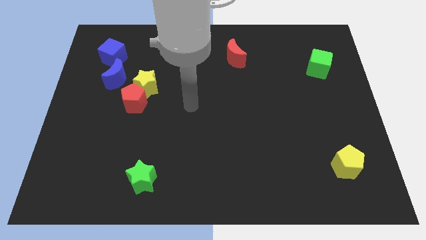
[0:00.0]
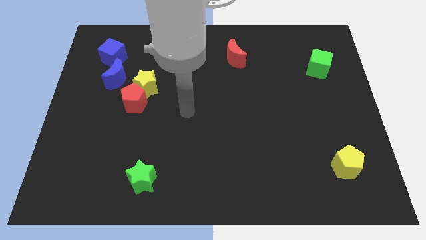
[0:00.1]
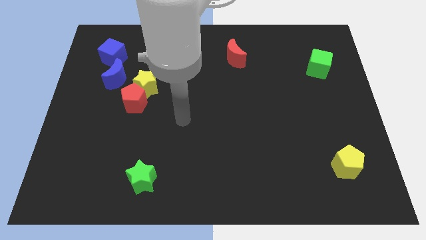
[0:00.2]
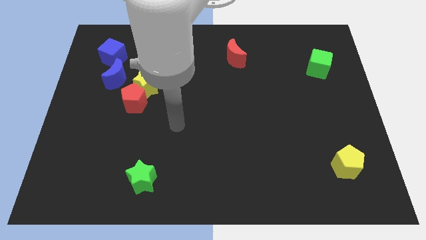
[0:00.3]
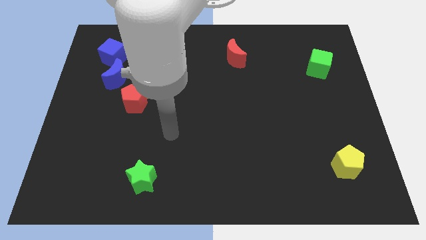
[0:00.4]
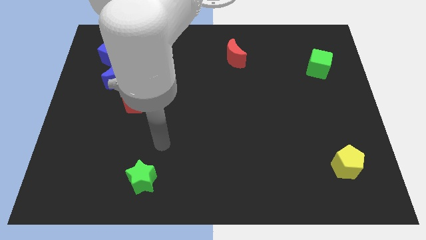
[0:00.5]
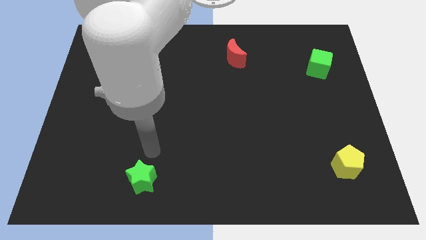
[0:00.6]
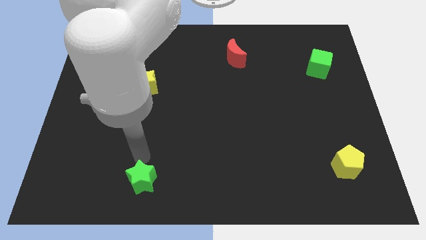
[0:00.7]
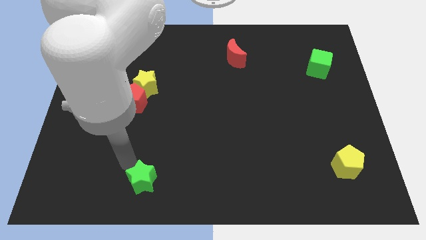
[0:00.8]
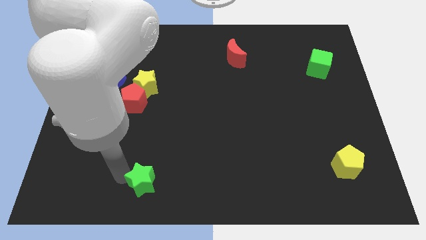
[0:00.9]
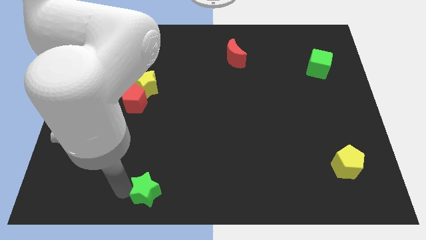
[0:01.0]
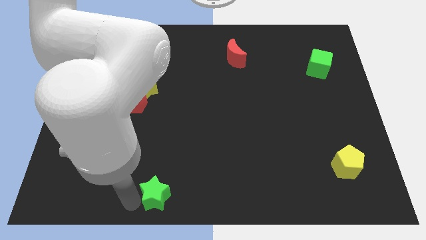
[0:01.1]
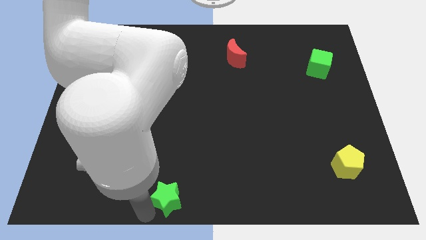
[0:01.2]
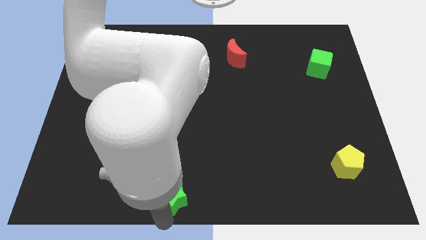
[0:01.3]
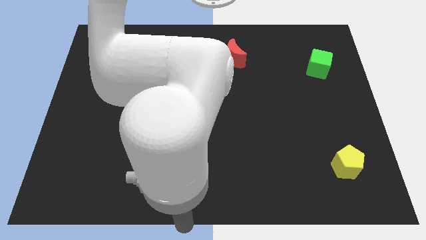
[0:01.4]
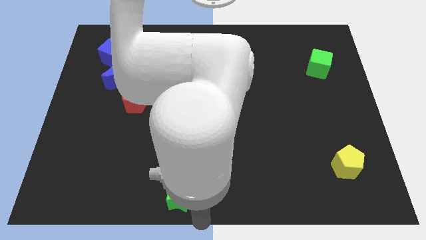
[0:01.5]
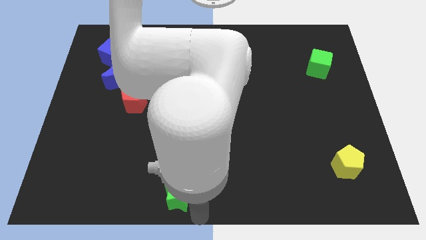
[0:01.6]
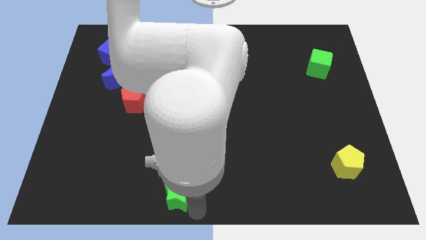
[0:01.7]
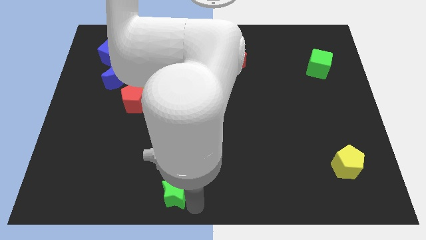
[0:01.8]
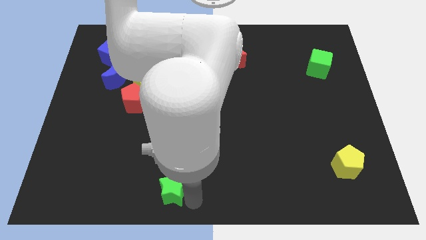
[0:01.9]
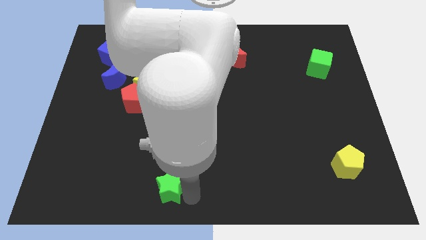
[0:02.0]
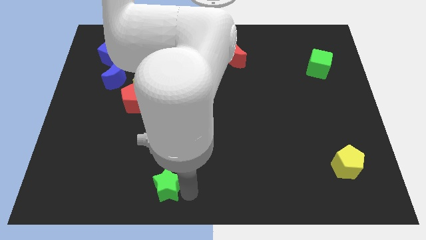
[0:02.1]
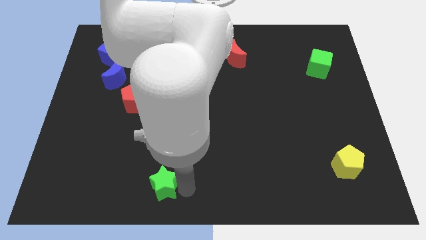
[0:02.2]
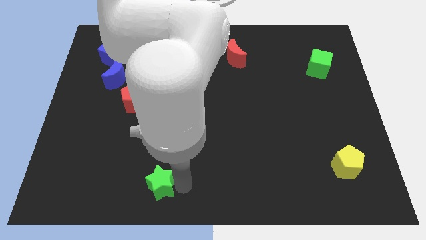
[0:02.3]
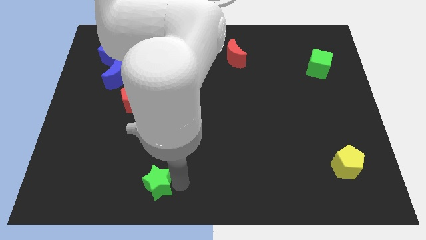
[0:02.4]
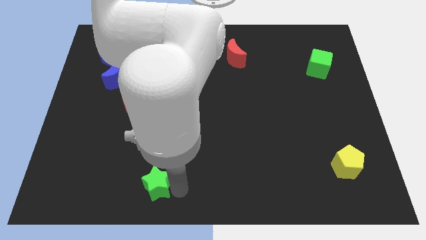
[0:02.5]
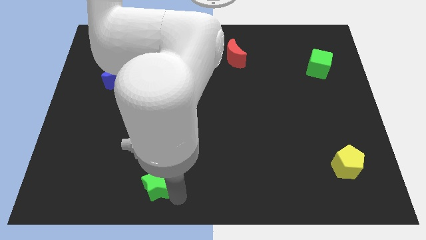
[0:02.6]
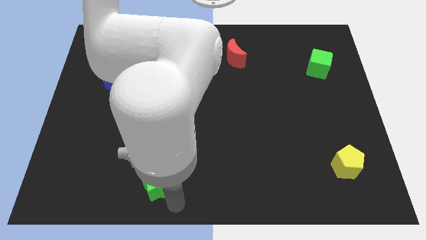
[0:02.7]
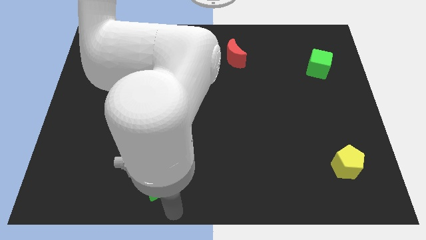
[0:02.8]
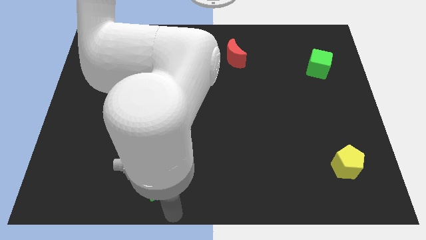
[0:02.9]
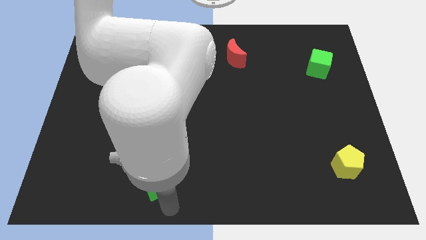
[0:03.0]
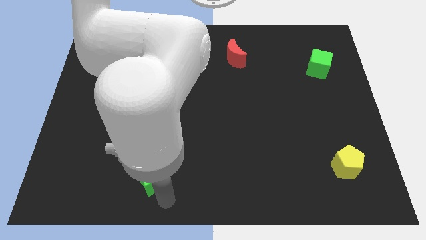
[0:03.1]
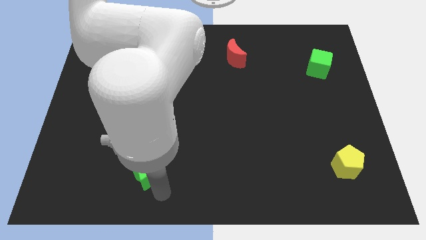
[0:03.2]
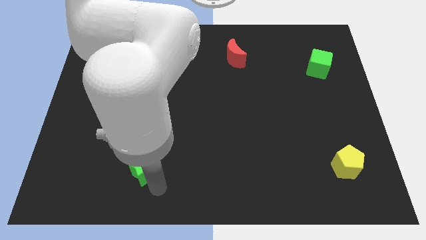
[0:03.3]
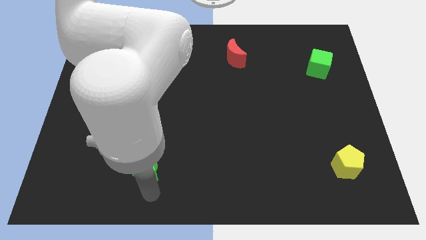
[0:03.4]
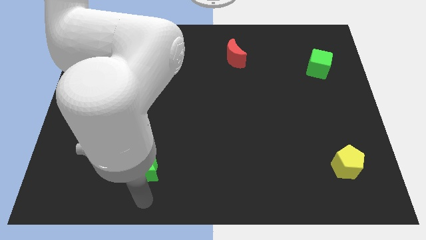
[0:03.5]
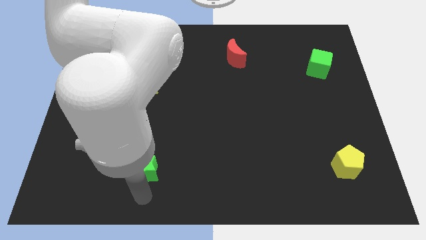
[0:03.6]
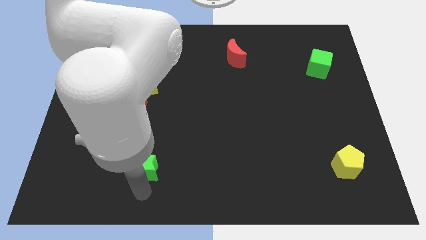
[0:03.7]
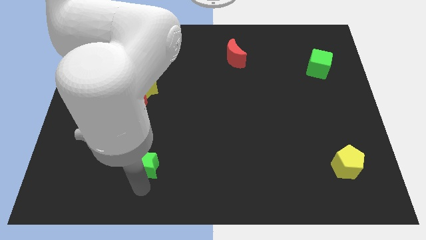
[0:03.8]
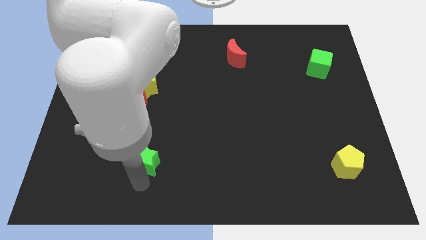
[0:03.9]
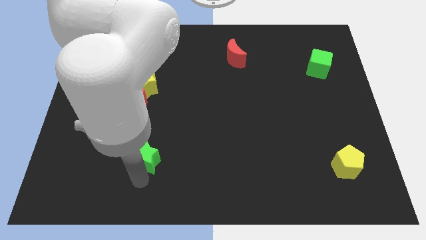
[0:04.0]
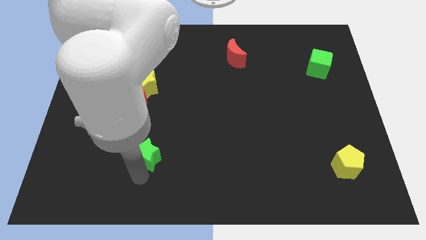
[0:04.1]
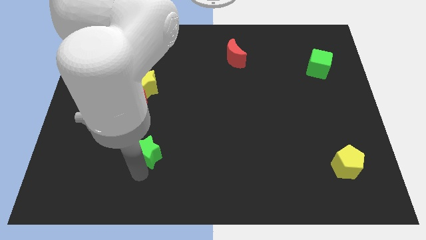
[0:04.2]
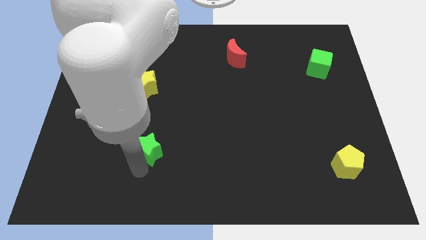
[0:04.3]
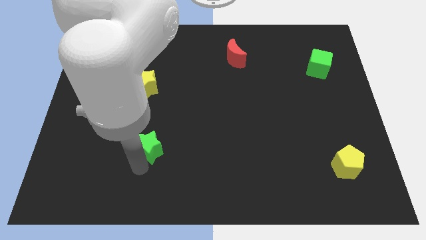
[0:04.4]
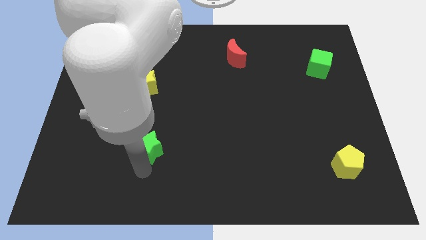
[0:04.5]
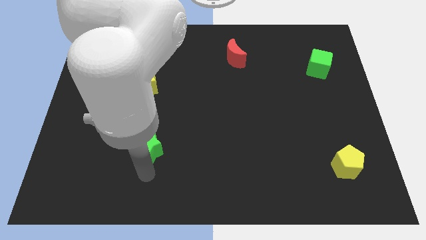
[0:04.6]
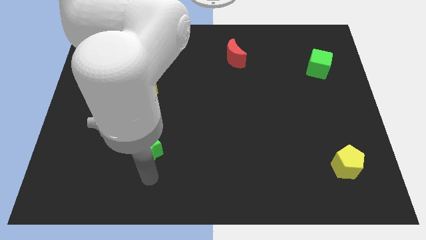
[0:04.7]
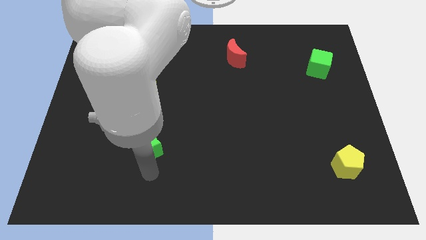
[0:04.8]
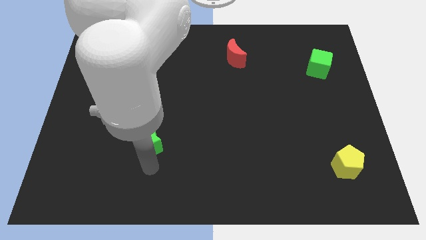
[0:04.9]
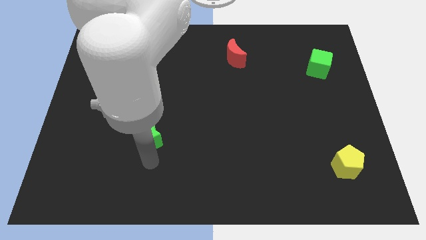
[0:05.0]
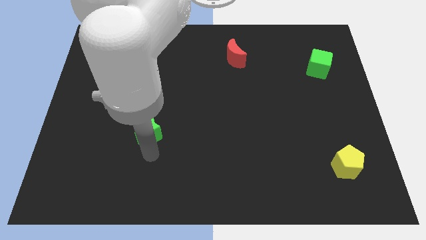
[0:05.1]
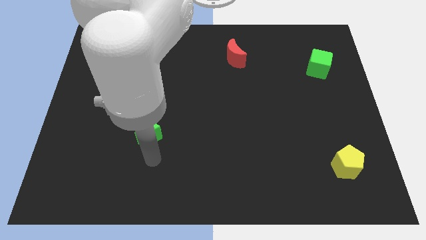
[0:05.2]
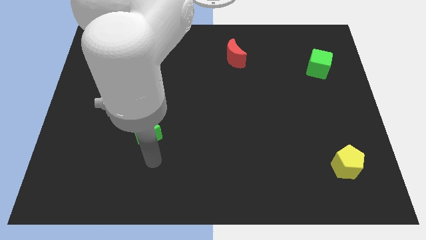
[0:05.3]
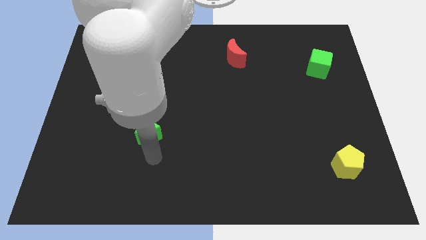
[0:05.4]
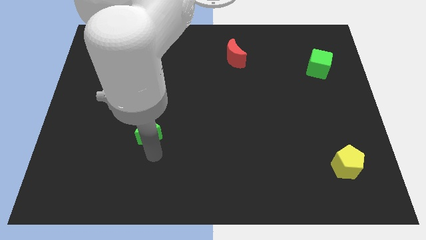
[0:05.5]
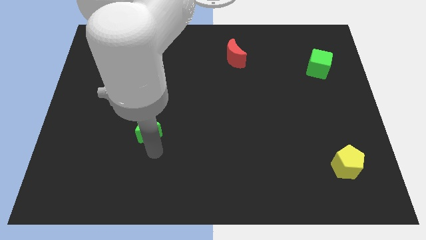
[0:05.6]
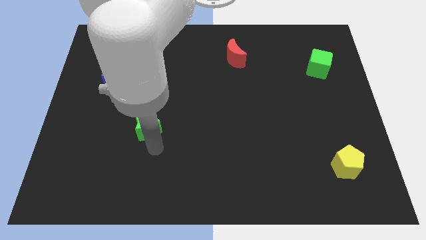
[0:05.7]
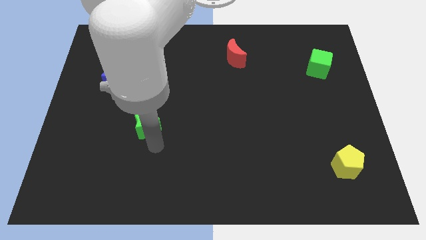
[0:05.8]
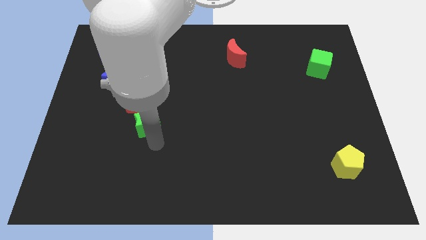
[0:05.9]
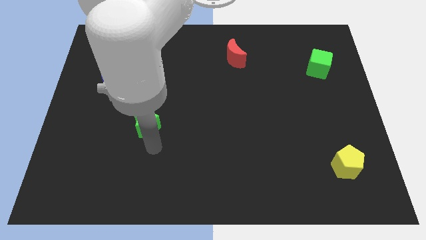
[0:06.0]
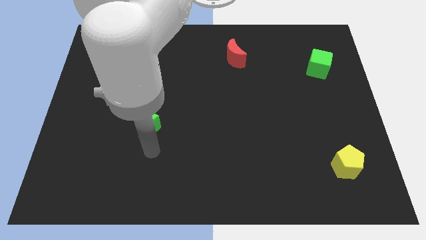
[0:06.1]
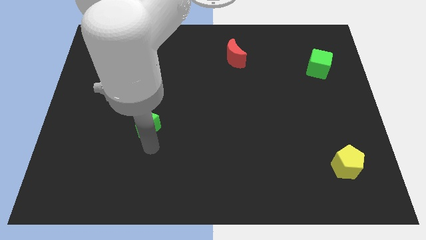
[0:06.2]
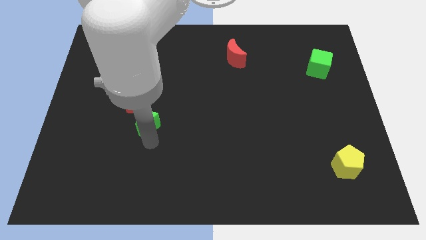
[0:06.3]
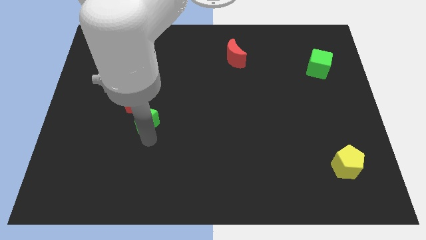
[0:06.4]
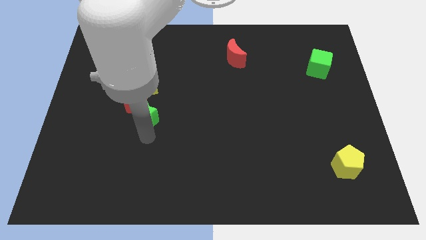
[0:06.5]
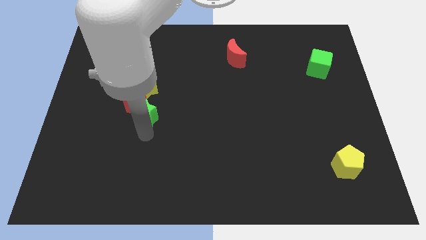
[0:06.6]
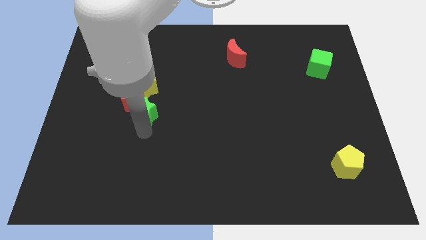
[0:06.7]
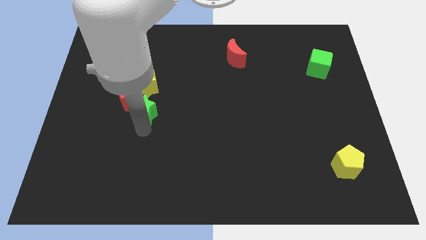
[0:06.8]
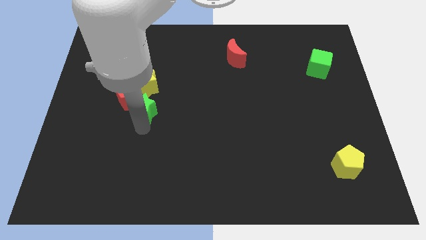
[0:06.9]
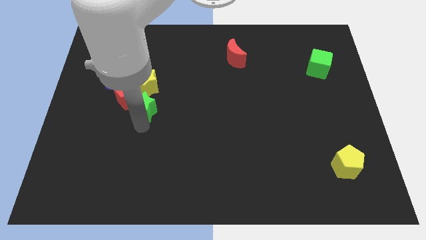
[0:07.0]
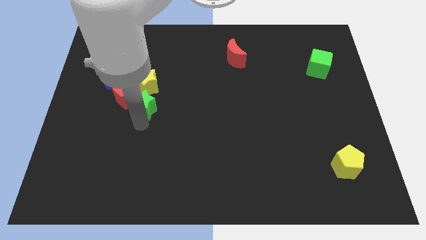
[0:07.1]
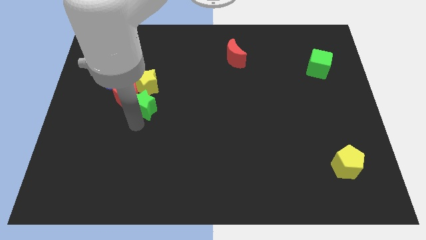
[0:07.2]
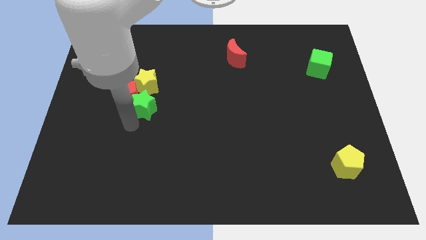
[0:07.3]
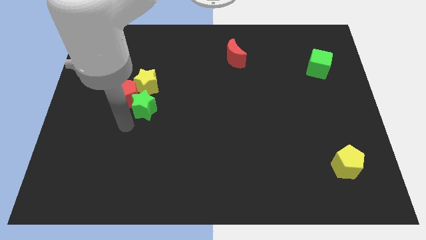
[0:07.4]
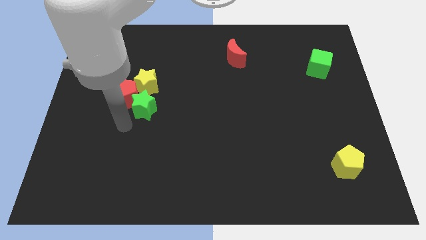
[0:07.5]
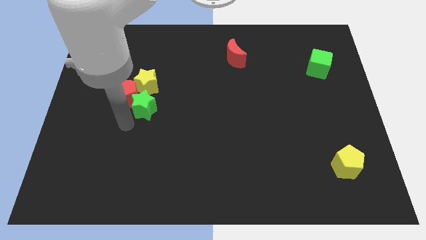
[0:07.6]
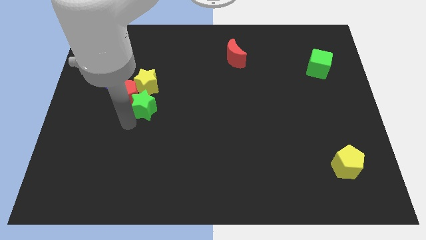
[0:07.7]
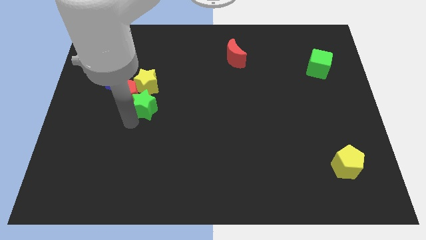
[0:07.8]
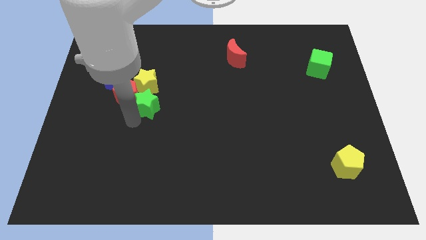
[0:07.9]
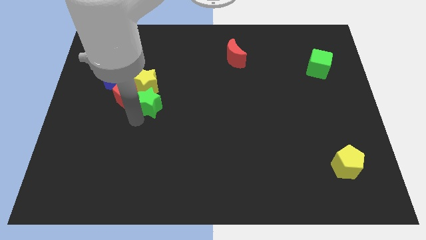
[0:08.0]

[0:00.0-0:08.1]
put the green star close to the yellow star
